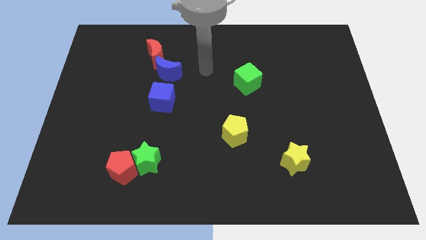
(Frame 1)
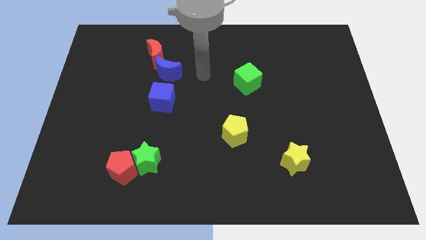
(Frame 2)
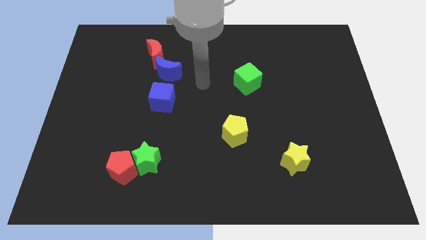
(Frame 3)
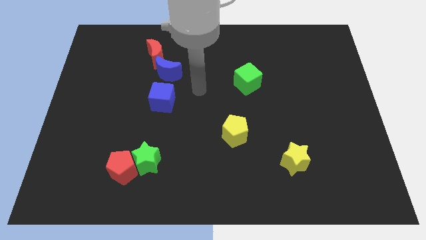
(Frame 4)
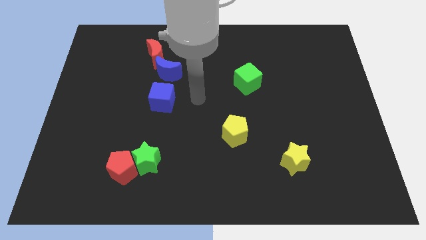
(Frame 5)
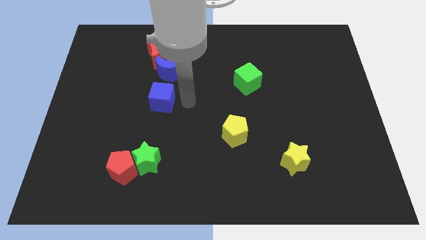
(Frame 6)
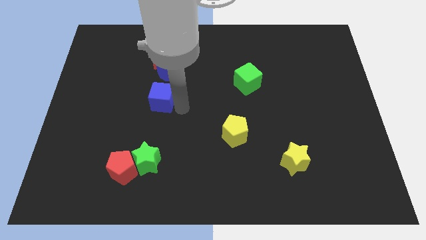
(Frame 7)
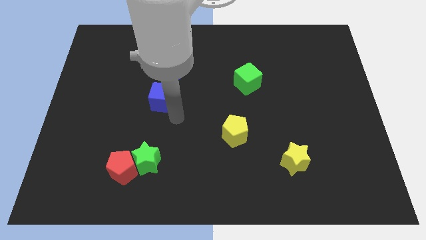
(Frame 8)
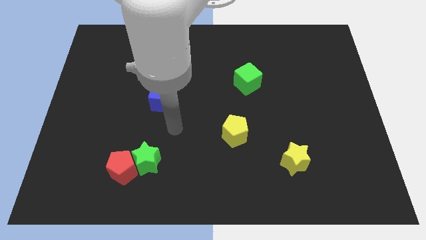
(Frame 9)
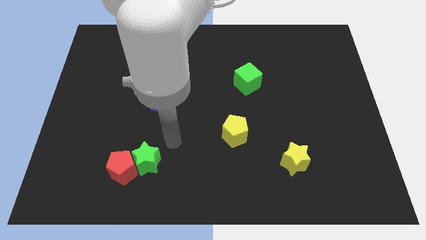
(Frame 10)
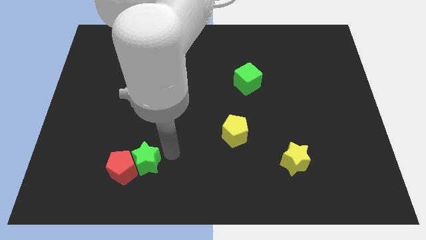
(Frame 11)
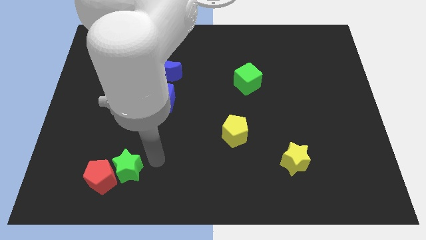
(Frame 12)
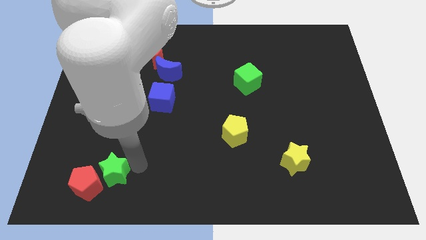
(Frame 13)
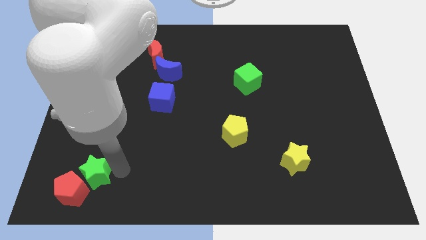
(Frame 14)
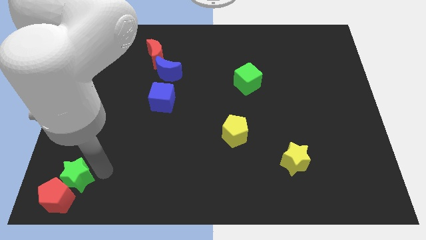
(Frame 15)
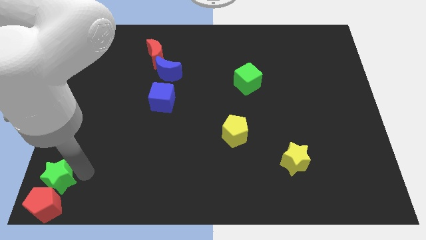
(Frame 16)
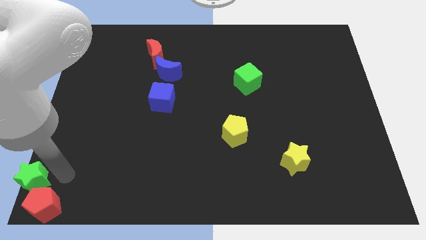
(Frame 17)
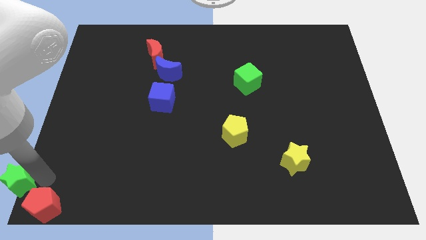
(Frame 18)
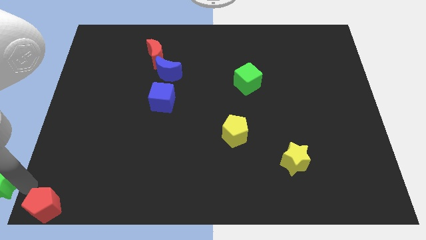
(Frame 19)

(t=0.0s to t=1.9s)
pull the red pentagon apart from the green star

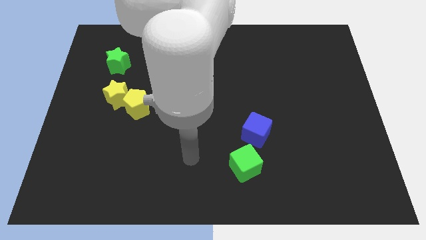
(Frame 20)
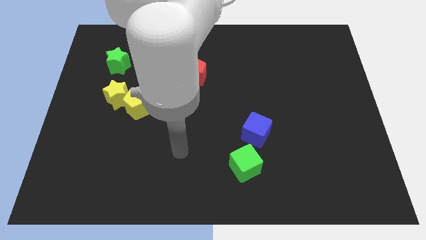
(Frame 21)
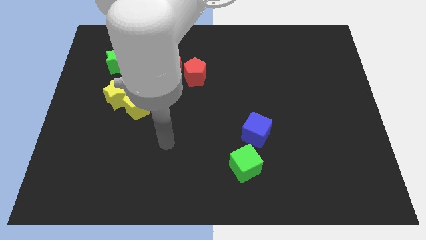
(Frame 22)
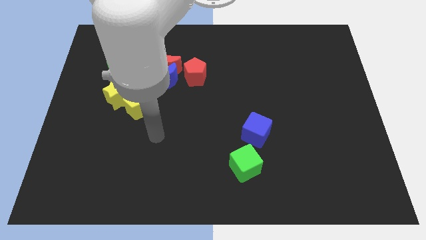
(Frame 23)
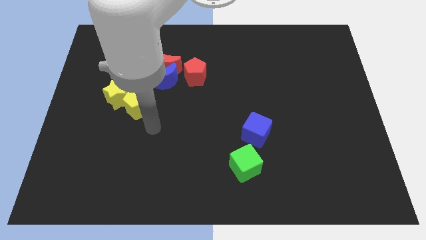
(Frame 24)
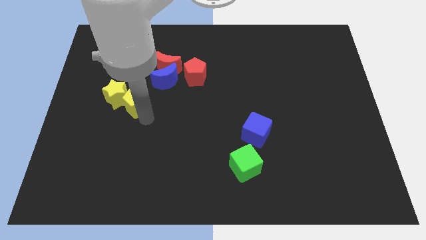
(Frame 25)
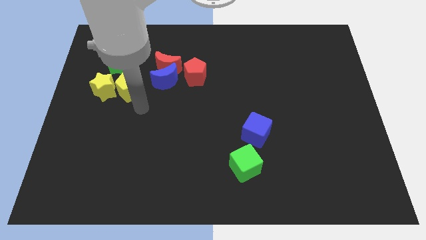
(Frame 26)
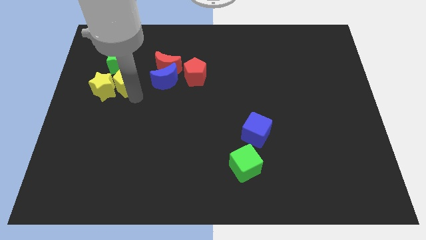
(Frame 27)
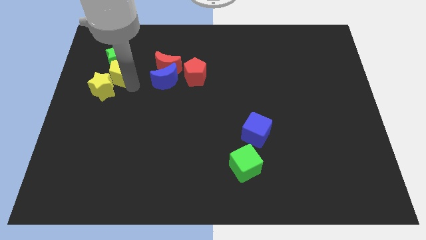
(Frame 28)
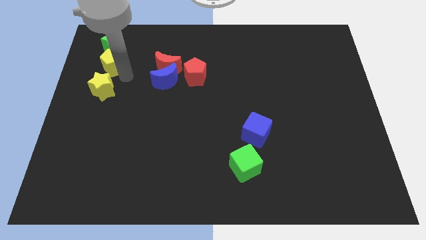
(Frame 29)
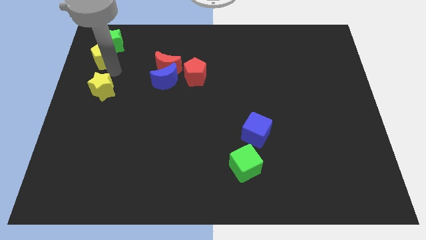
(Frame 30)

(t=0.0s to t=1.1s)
pull the yellow star apart from the yellow pentagon

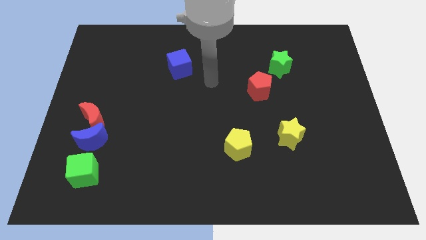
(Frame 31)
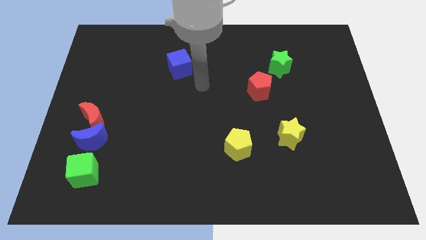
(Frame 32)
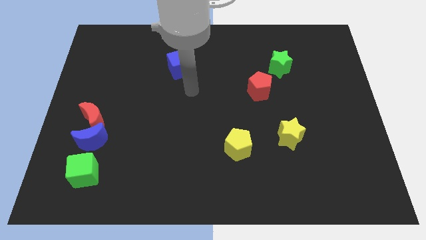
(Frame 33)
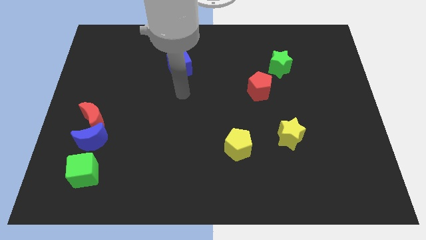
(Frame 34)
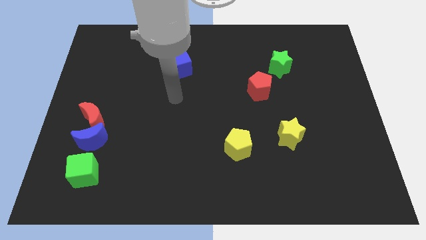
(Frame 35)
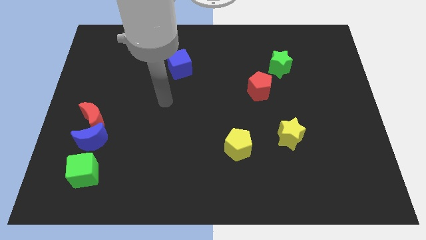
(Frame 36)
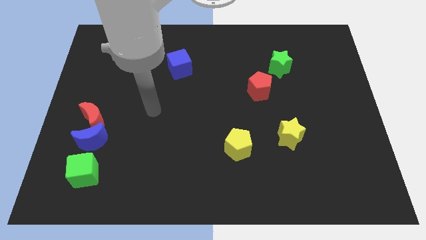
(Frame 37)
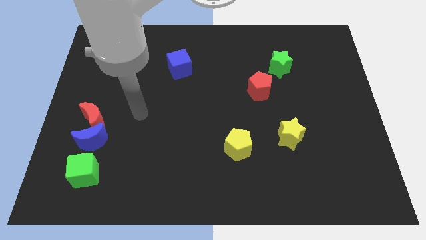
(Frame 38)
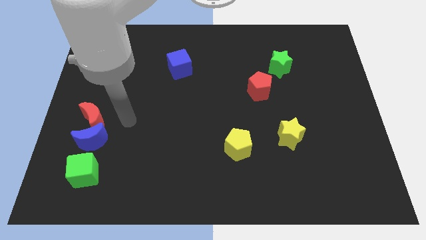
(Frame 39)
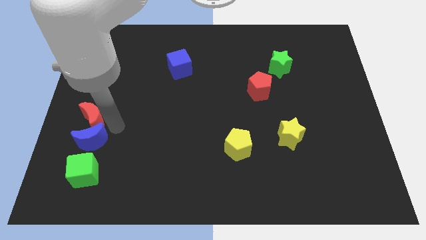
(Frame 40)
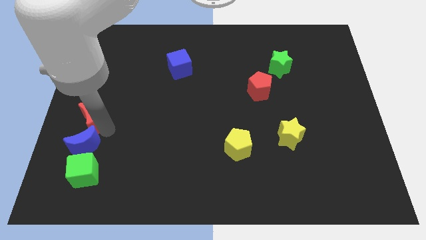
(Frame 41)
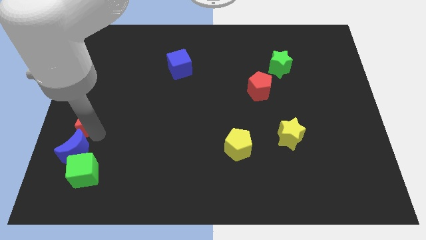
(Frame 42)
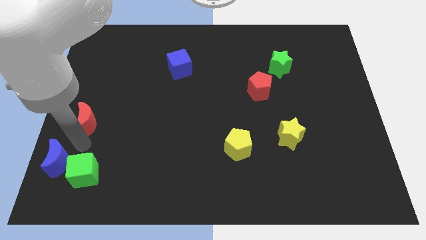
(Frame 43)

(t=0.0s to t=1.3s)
separate the red moon from the blue moon

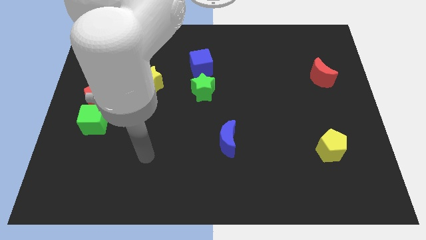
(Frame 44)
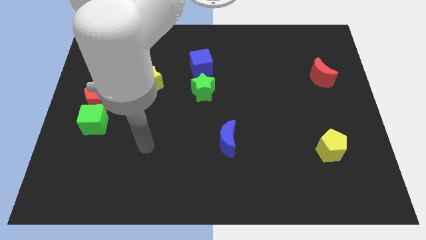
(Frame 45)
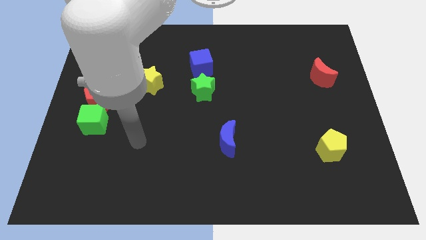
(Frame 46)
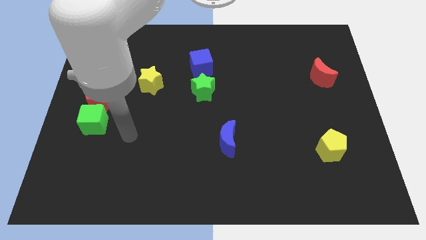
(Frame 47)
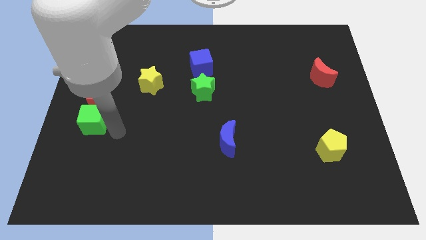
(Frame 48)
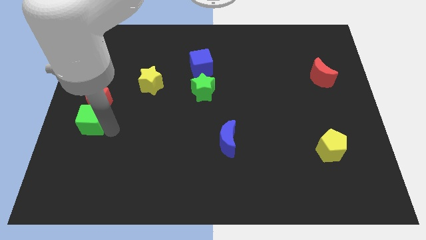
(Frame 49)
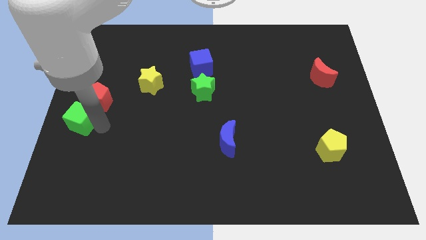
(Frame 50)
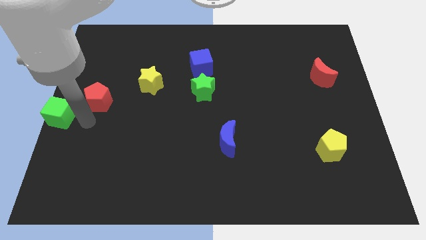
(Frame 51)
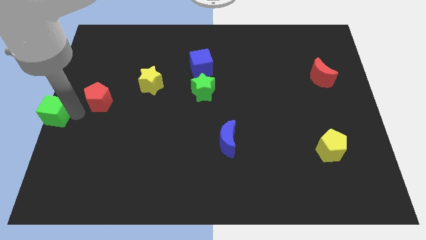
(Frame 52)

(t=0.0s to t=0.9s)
move the red pentagon away from the green cube

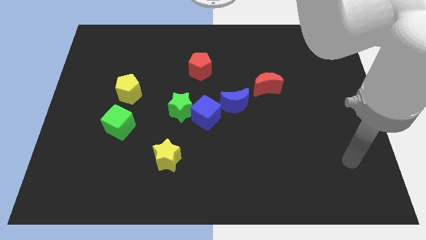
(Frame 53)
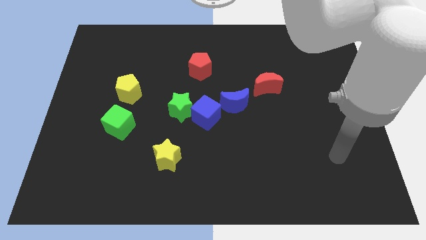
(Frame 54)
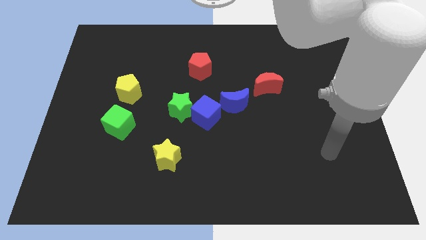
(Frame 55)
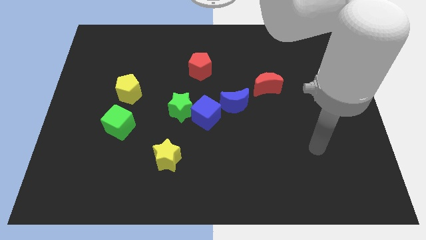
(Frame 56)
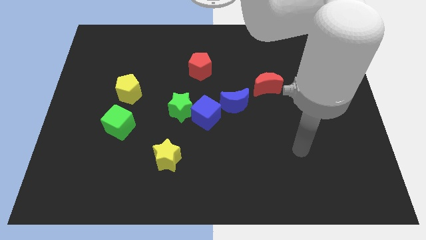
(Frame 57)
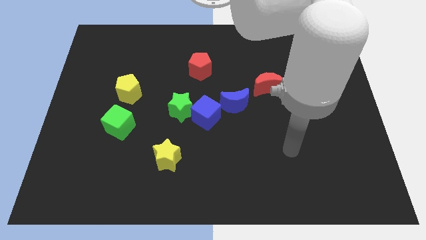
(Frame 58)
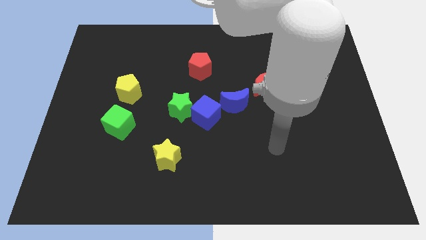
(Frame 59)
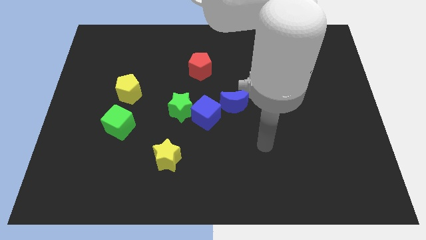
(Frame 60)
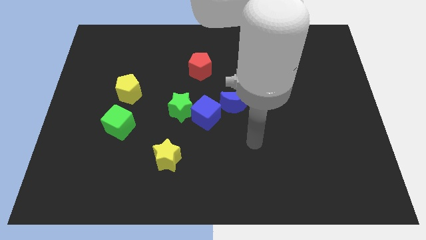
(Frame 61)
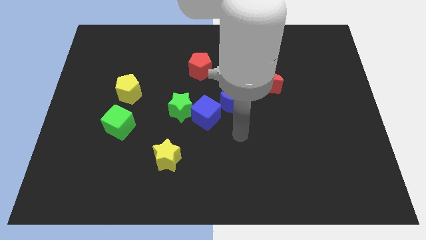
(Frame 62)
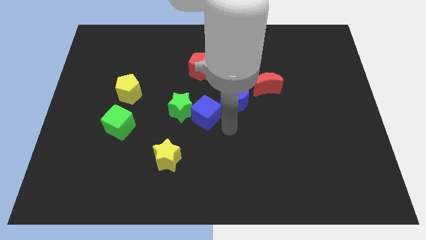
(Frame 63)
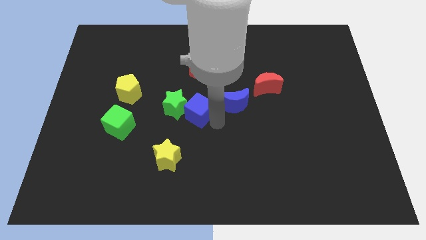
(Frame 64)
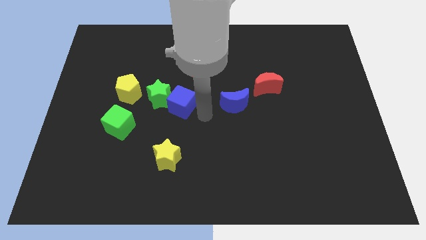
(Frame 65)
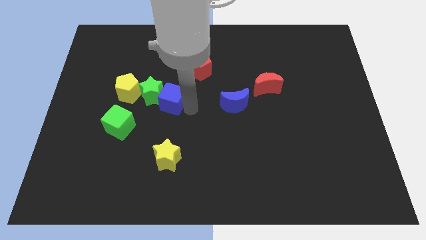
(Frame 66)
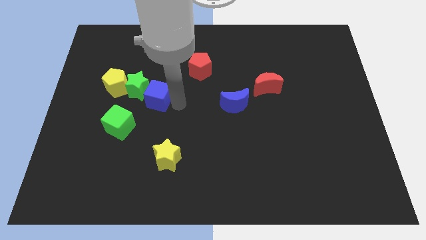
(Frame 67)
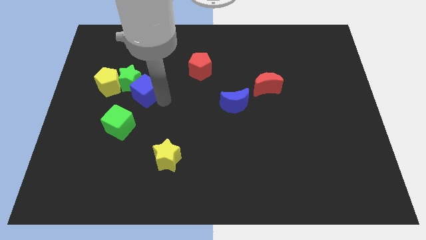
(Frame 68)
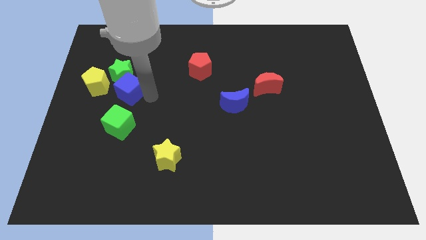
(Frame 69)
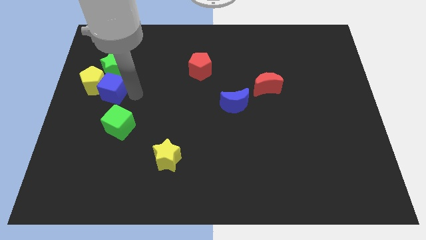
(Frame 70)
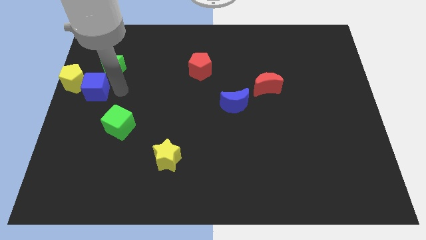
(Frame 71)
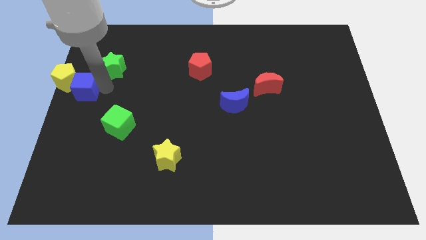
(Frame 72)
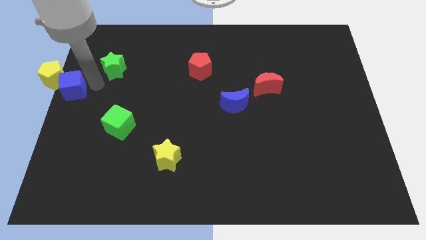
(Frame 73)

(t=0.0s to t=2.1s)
pull the green star apart from the blue cube

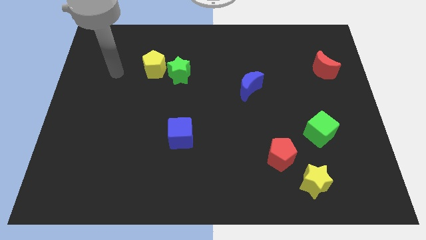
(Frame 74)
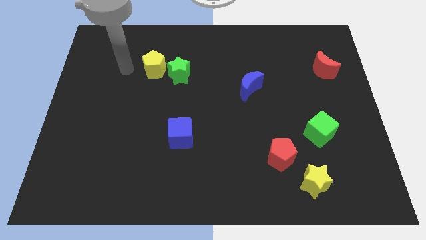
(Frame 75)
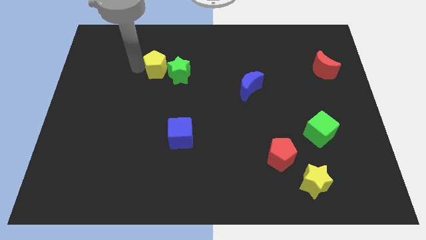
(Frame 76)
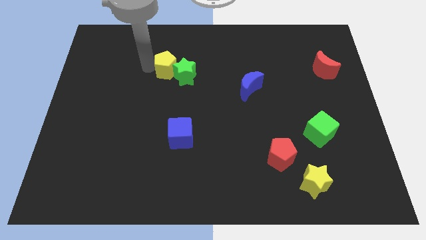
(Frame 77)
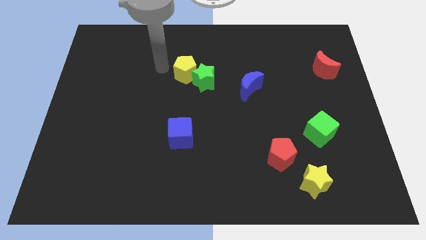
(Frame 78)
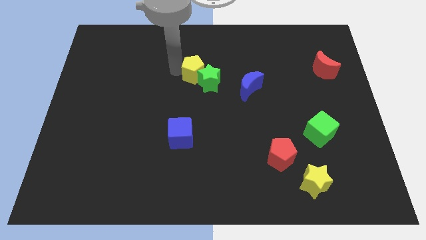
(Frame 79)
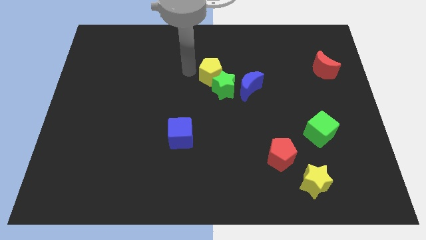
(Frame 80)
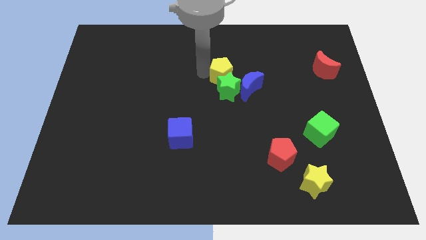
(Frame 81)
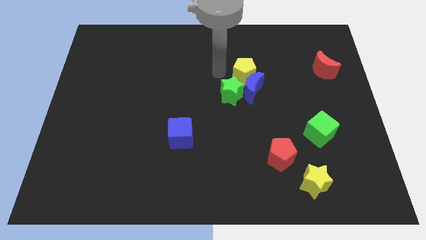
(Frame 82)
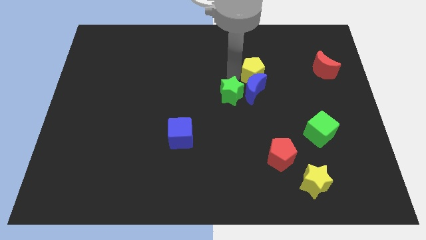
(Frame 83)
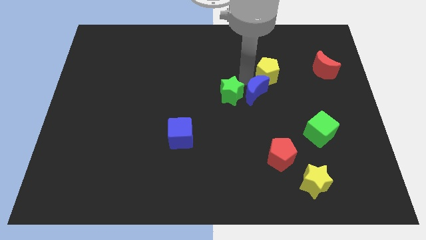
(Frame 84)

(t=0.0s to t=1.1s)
separate the green star from the yellow pentagon

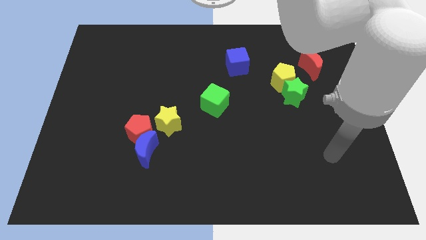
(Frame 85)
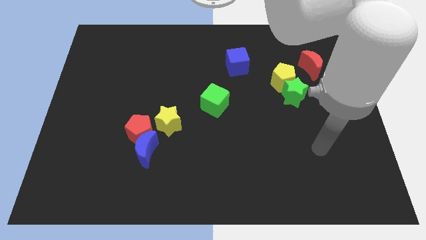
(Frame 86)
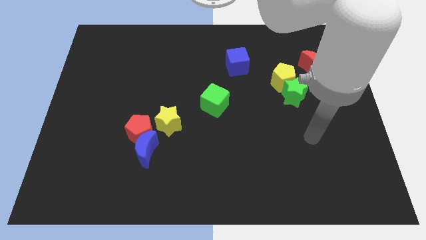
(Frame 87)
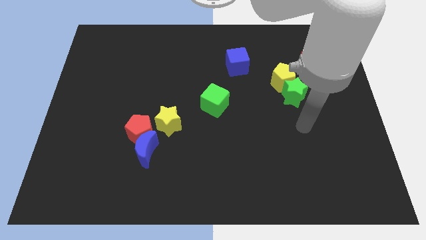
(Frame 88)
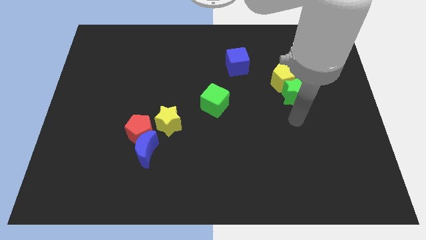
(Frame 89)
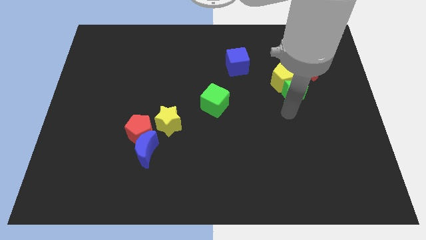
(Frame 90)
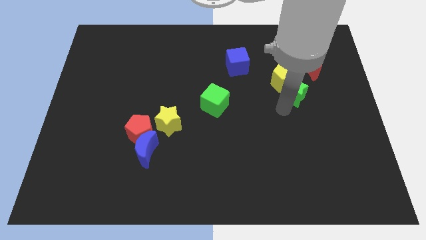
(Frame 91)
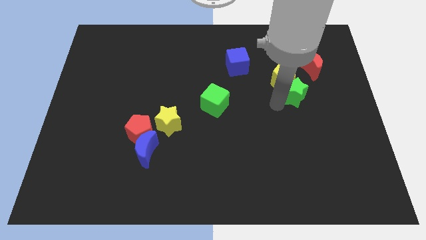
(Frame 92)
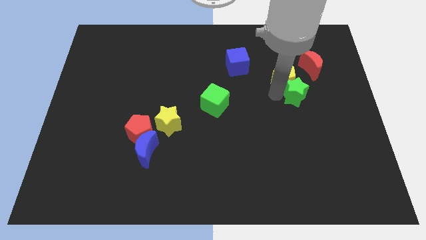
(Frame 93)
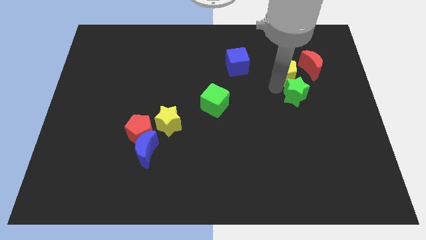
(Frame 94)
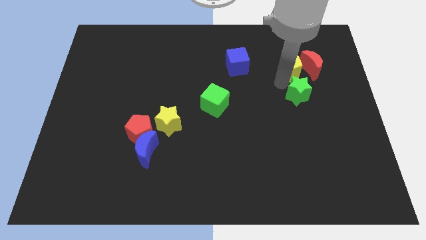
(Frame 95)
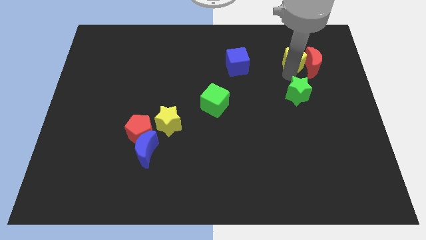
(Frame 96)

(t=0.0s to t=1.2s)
pull the green star apart from the yellow pentagon
